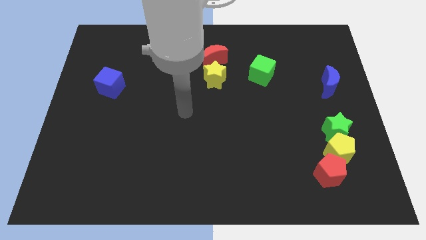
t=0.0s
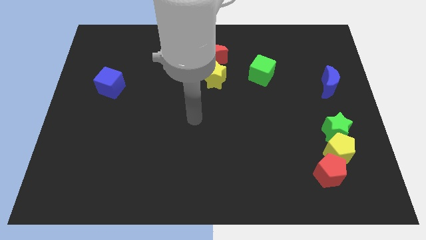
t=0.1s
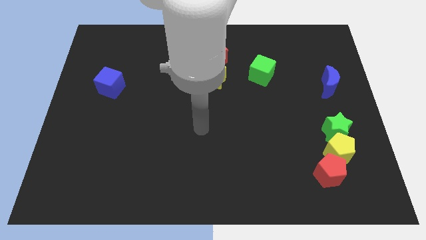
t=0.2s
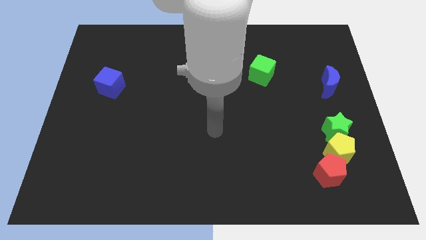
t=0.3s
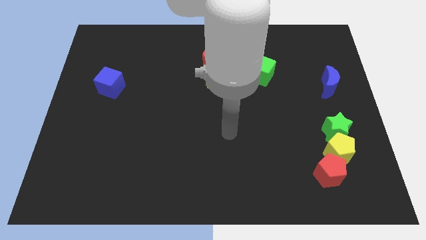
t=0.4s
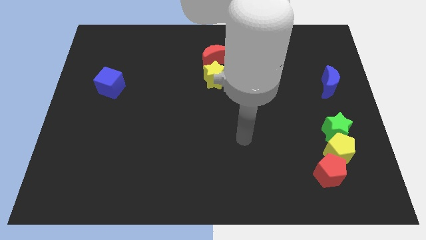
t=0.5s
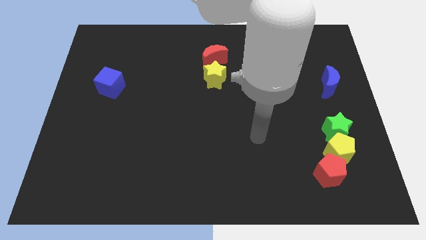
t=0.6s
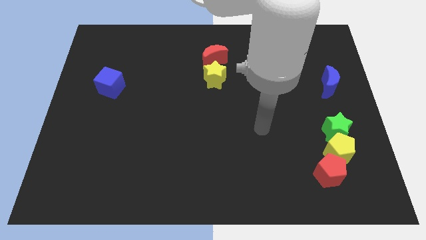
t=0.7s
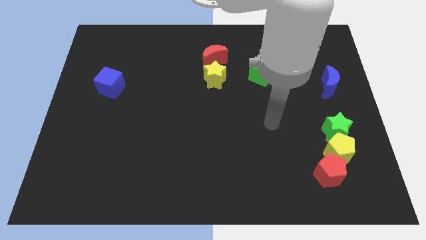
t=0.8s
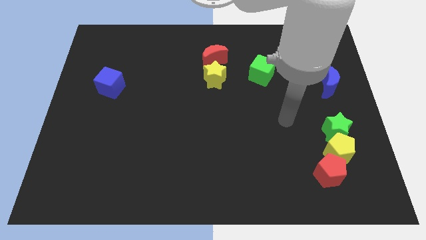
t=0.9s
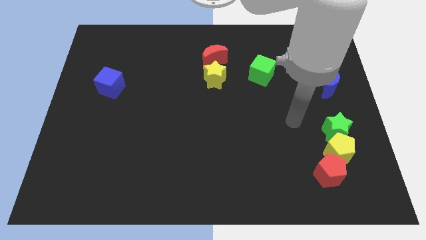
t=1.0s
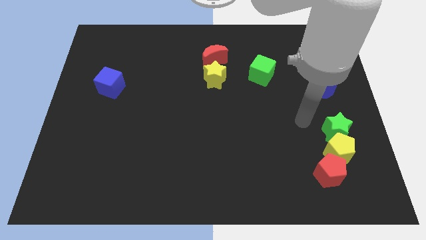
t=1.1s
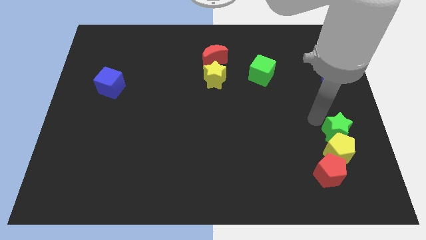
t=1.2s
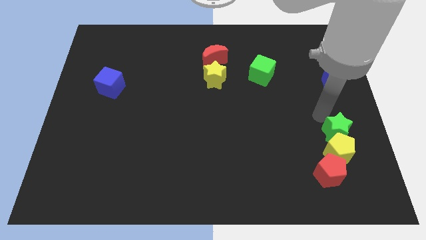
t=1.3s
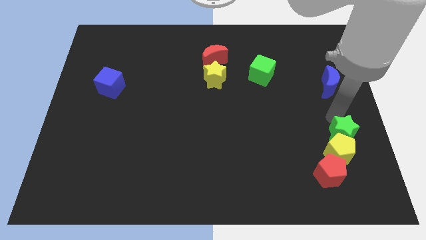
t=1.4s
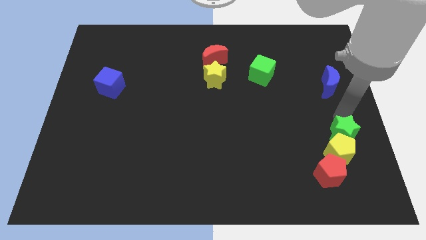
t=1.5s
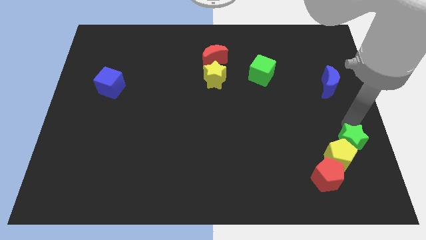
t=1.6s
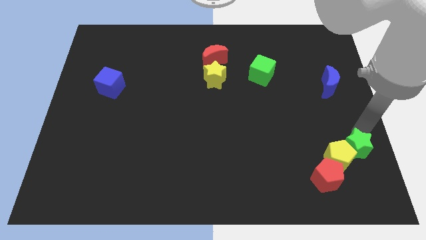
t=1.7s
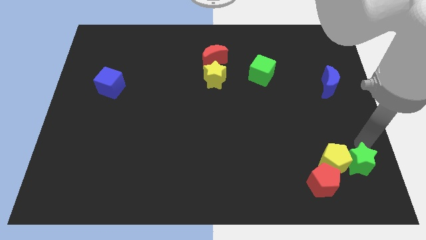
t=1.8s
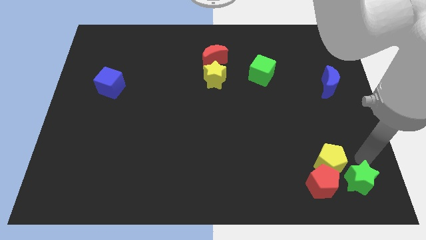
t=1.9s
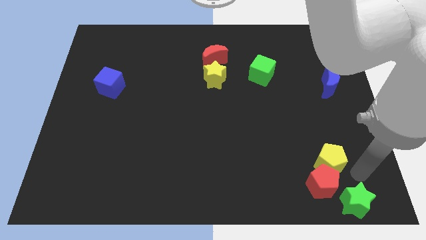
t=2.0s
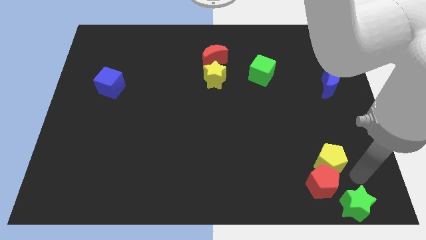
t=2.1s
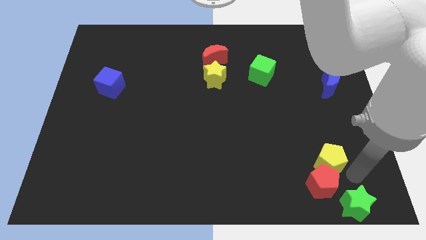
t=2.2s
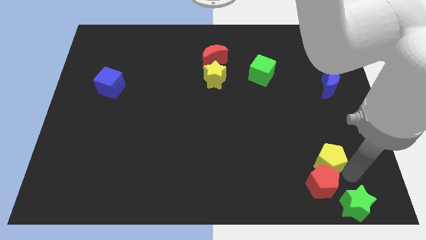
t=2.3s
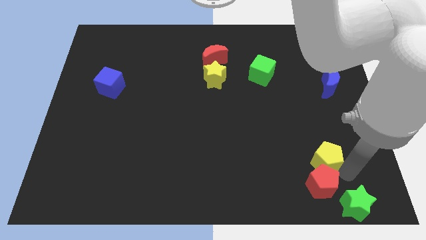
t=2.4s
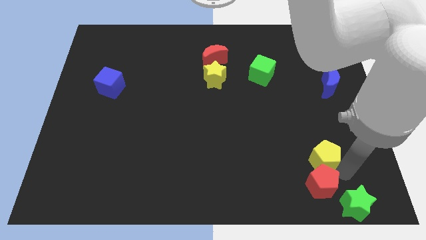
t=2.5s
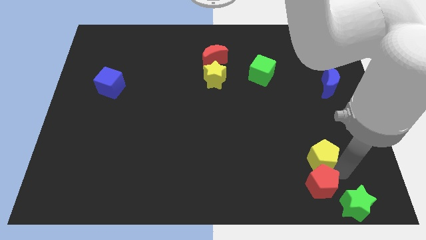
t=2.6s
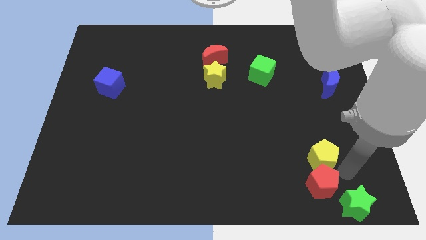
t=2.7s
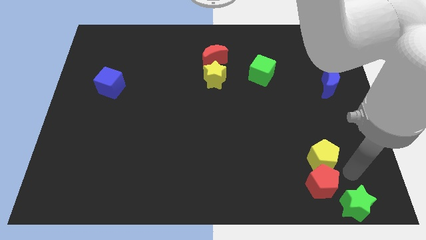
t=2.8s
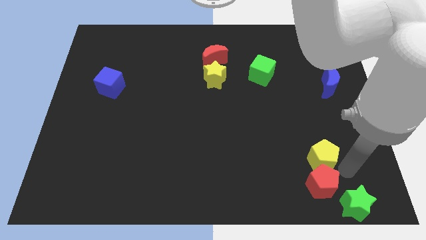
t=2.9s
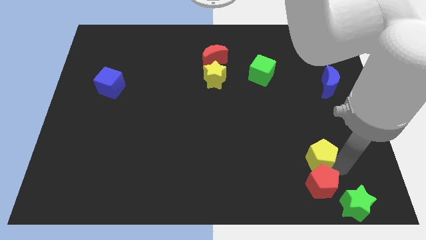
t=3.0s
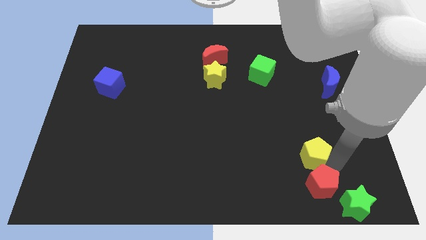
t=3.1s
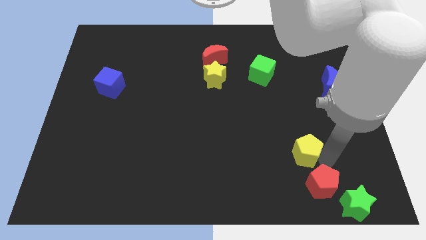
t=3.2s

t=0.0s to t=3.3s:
slightly push the yellow pentagon to the left

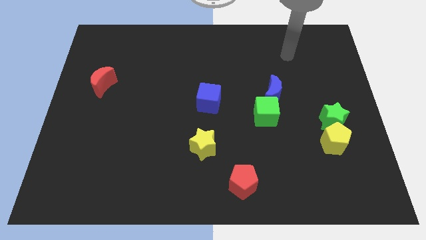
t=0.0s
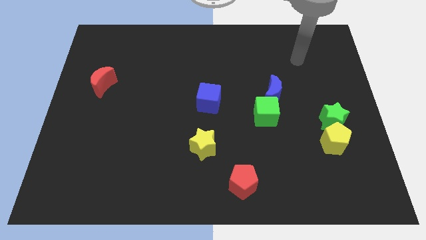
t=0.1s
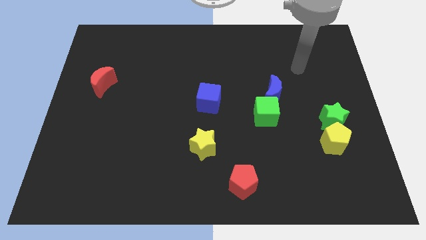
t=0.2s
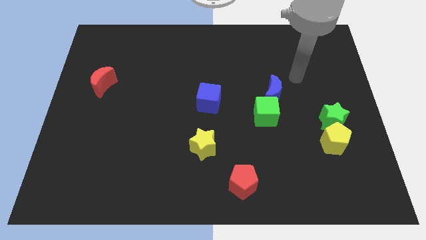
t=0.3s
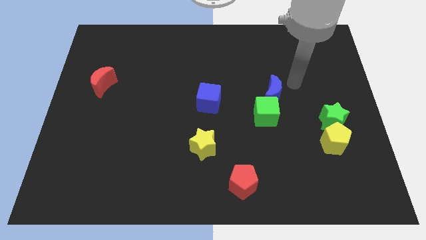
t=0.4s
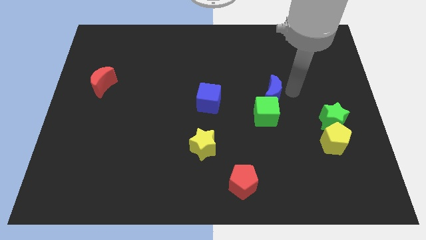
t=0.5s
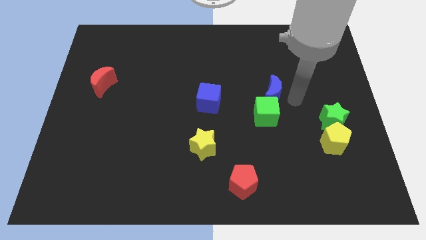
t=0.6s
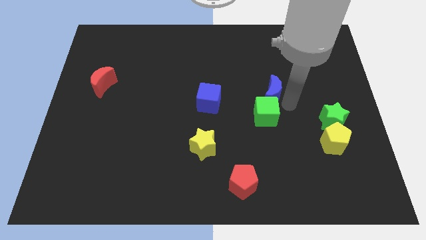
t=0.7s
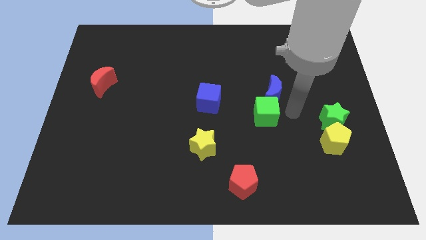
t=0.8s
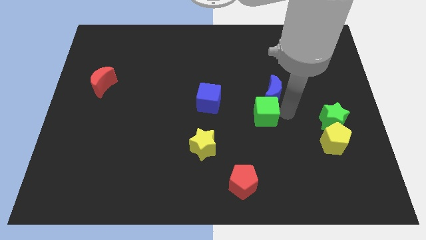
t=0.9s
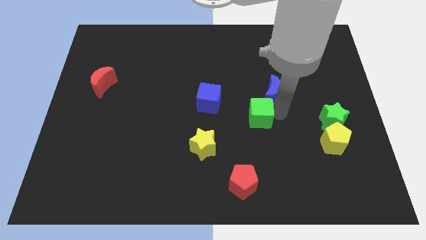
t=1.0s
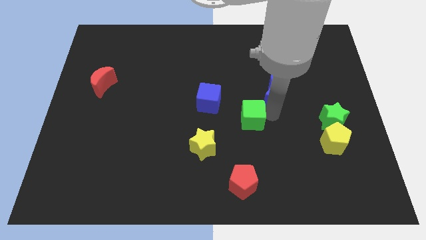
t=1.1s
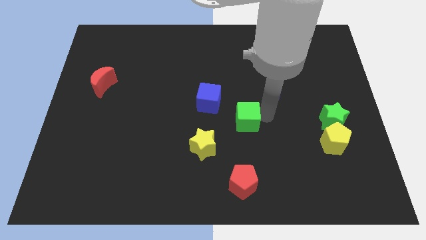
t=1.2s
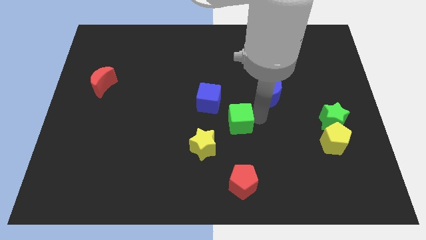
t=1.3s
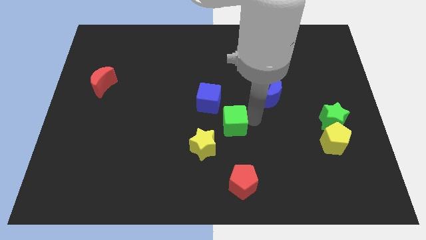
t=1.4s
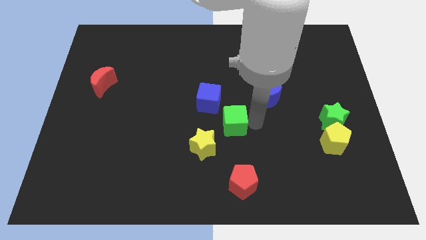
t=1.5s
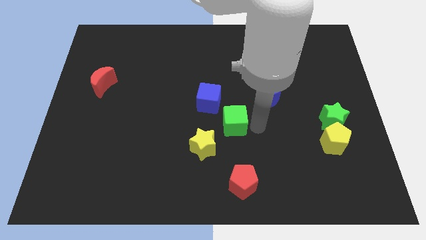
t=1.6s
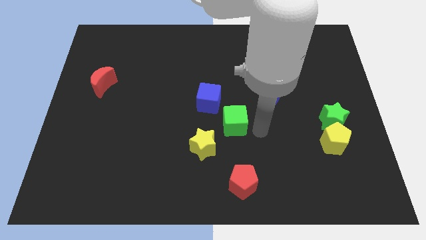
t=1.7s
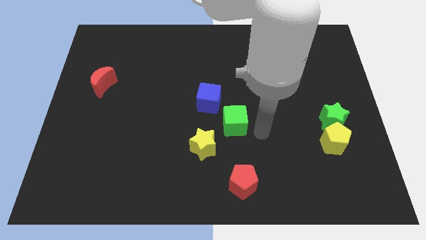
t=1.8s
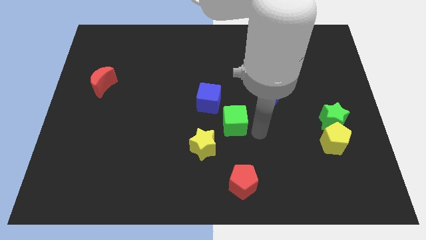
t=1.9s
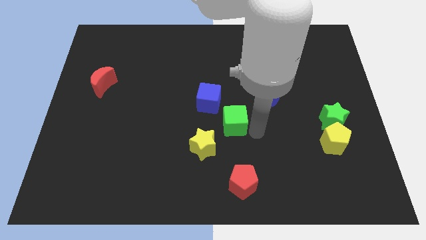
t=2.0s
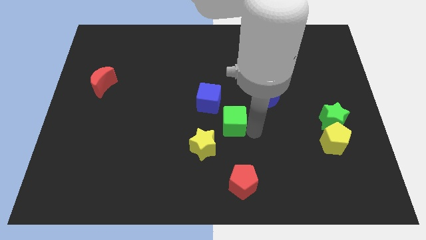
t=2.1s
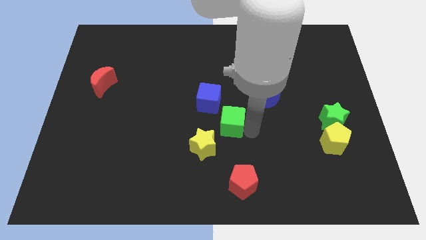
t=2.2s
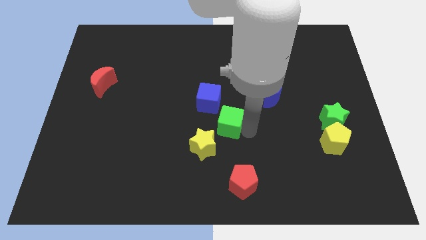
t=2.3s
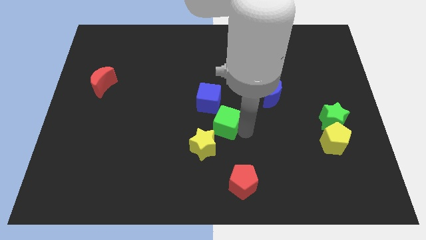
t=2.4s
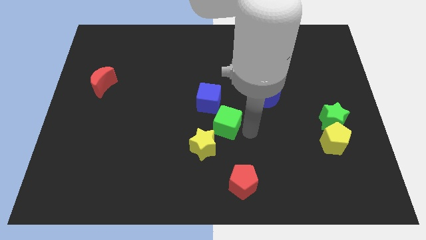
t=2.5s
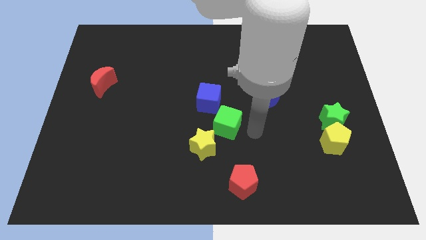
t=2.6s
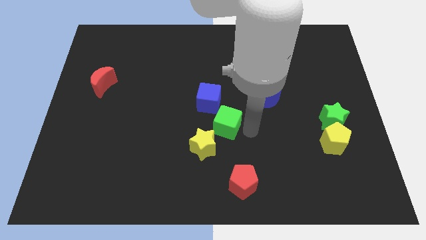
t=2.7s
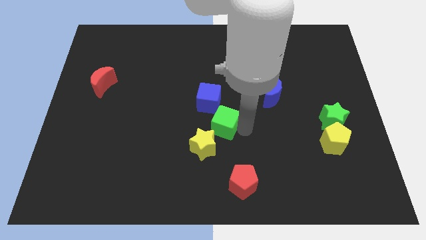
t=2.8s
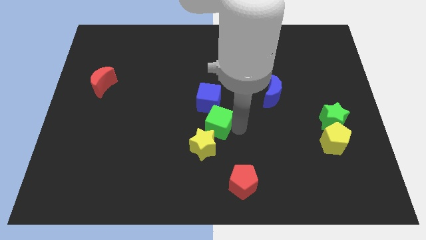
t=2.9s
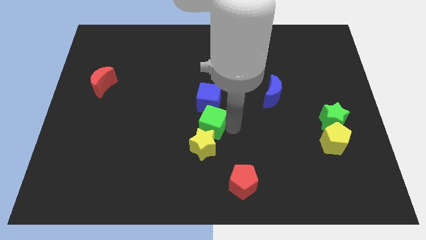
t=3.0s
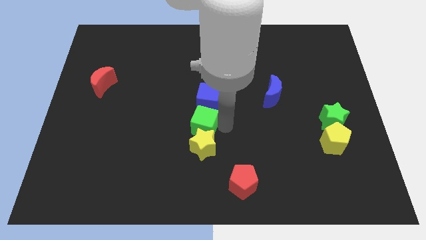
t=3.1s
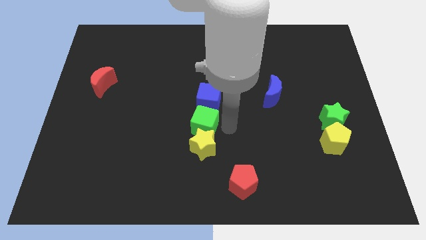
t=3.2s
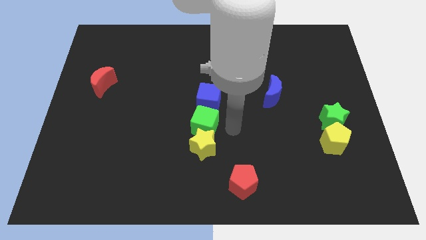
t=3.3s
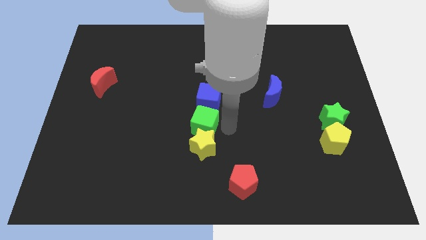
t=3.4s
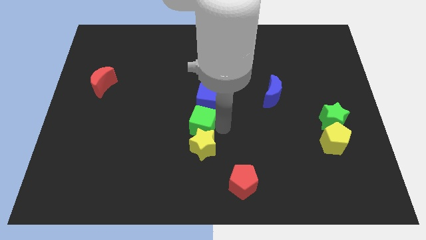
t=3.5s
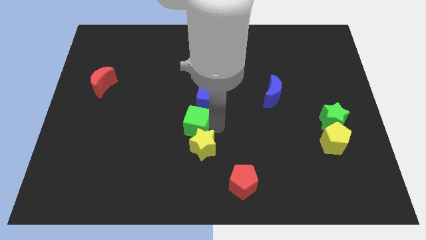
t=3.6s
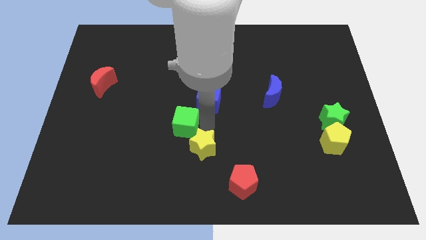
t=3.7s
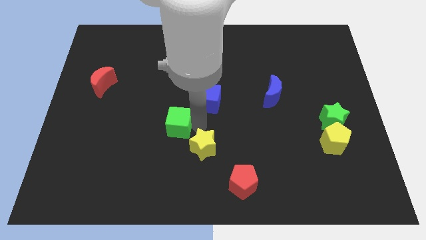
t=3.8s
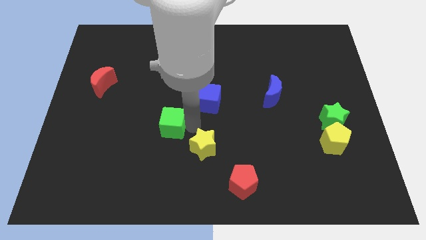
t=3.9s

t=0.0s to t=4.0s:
push the green cube to the left

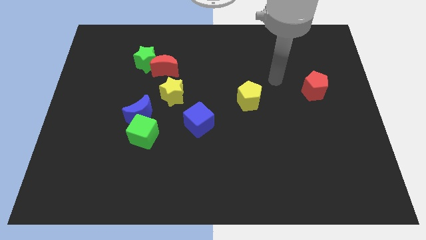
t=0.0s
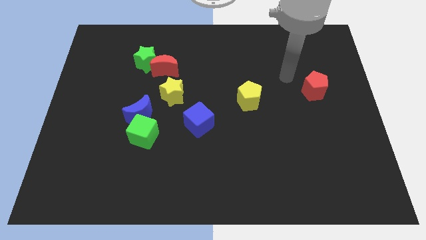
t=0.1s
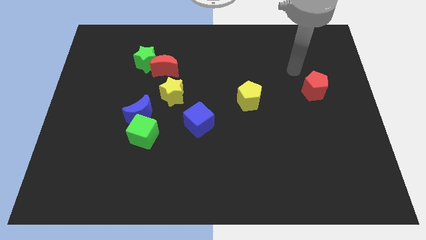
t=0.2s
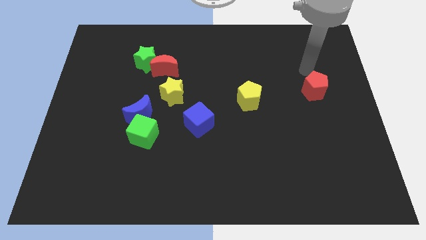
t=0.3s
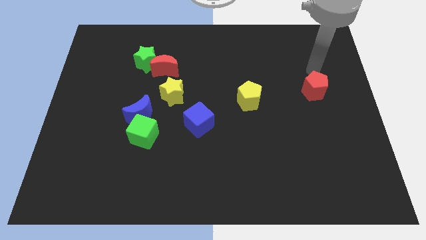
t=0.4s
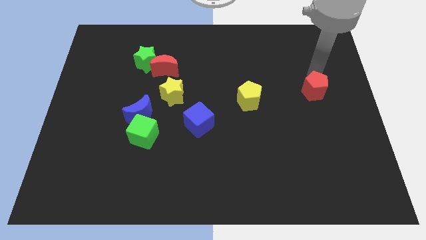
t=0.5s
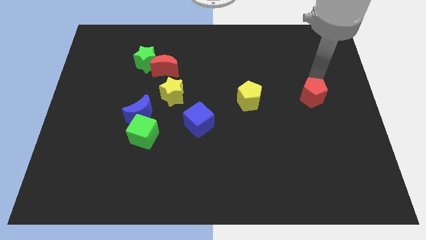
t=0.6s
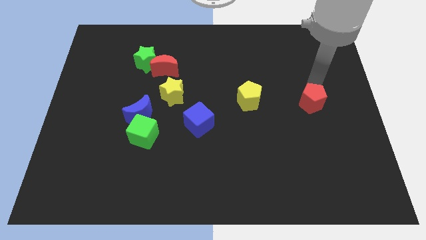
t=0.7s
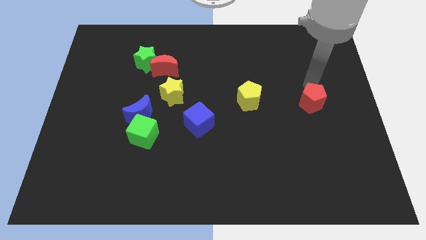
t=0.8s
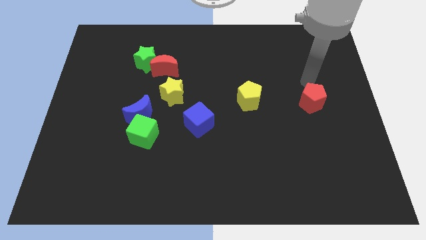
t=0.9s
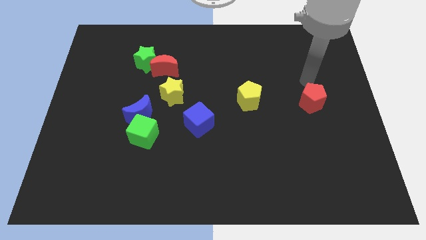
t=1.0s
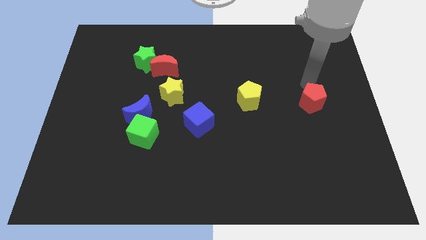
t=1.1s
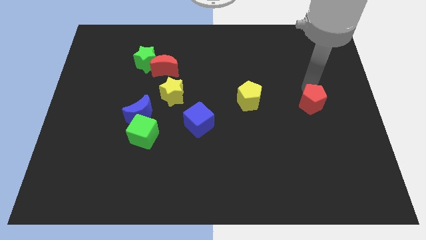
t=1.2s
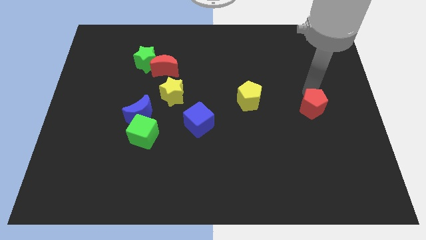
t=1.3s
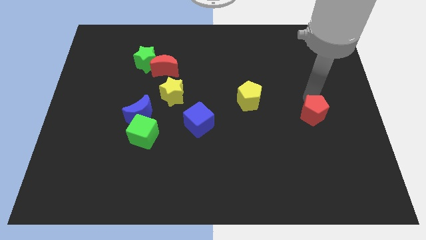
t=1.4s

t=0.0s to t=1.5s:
push the red pentagon slightly down
